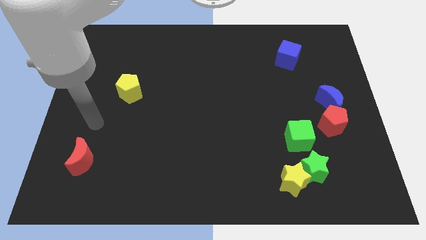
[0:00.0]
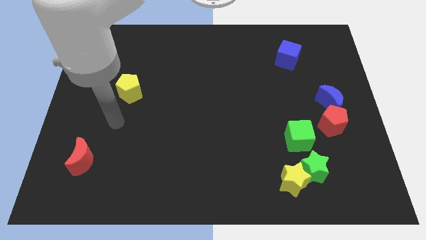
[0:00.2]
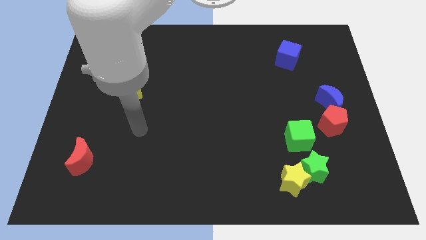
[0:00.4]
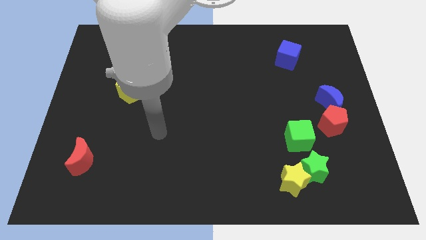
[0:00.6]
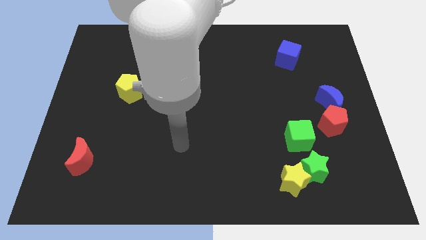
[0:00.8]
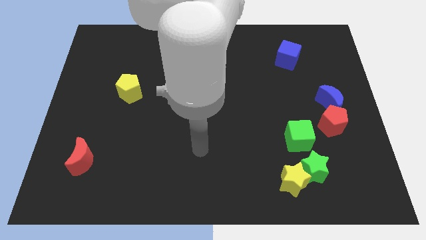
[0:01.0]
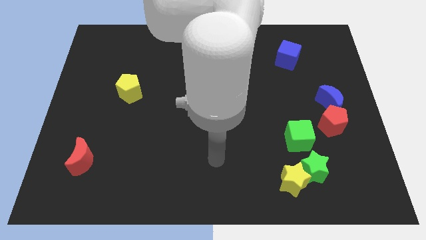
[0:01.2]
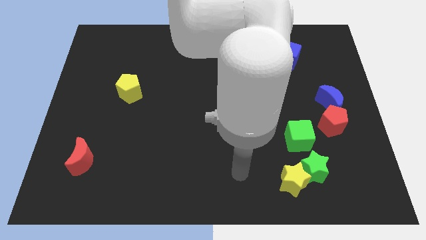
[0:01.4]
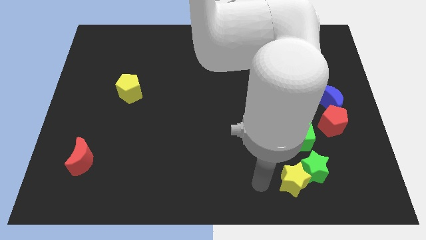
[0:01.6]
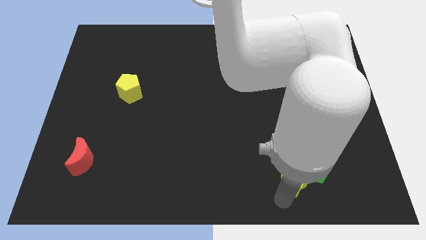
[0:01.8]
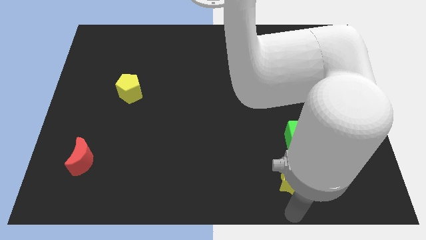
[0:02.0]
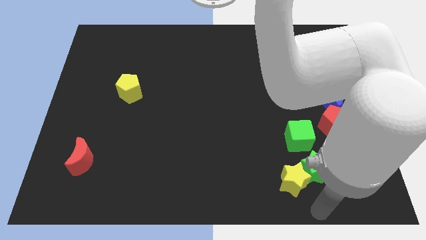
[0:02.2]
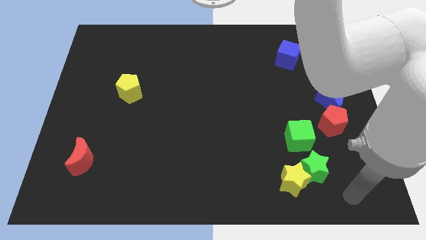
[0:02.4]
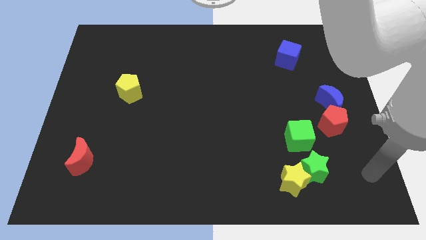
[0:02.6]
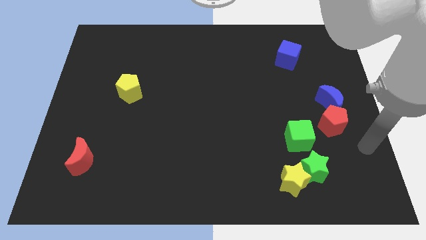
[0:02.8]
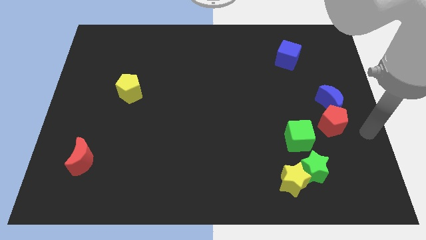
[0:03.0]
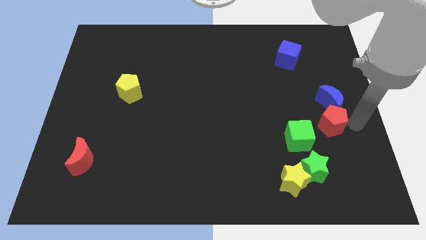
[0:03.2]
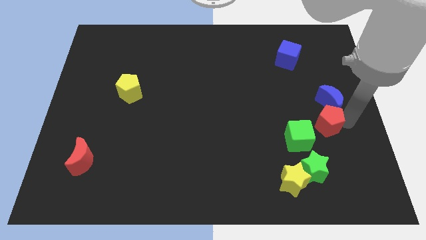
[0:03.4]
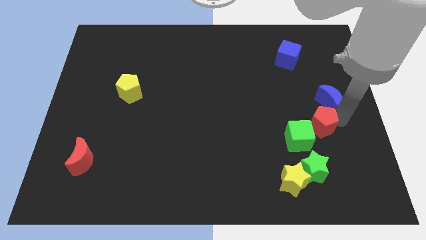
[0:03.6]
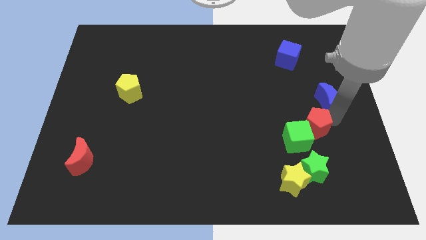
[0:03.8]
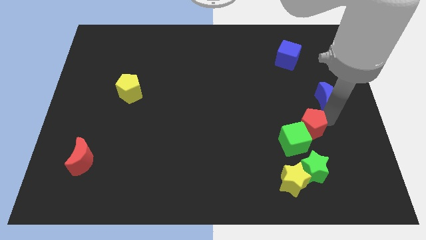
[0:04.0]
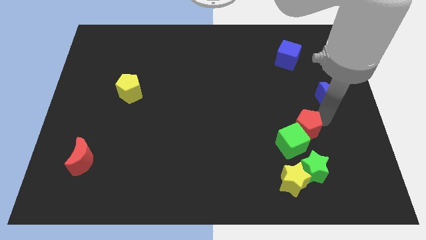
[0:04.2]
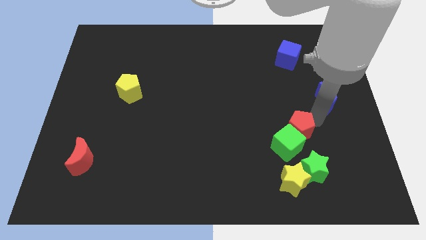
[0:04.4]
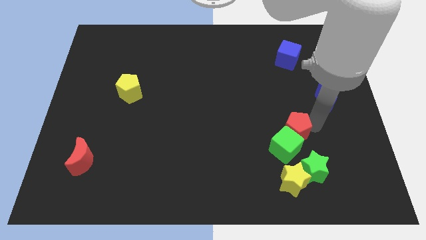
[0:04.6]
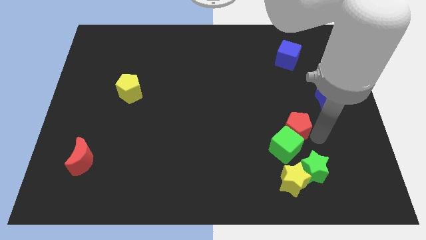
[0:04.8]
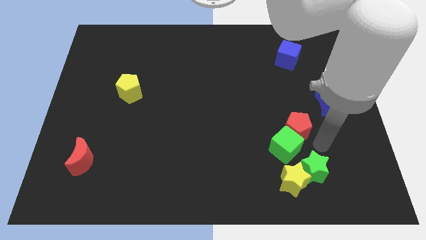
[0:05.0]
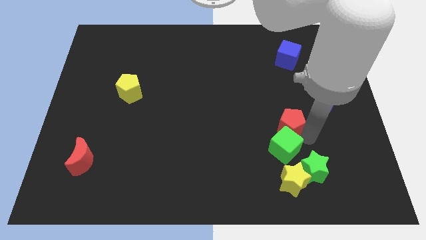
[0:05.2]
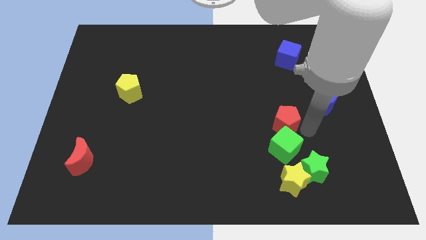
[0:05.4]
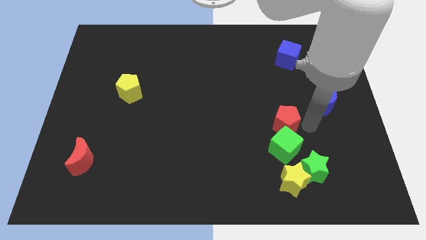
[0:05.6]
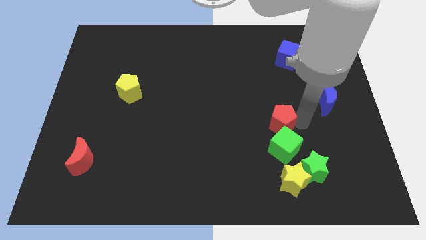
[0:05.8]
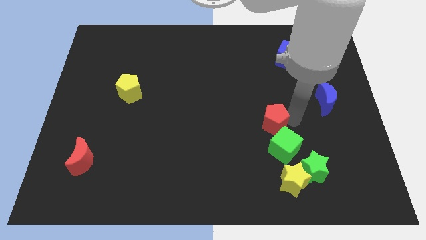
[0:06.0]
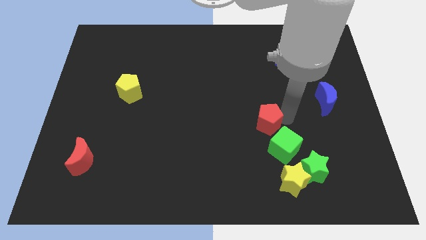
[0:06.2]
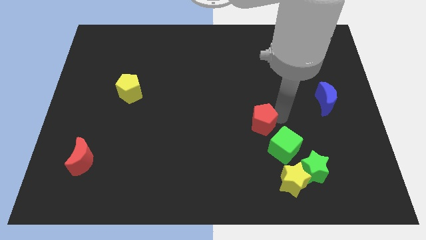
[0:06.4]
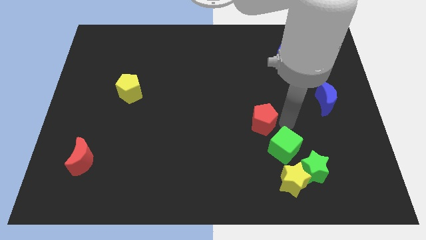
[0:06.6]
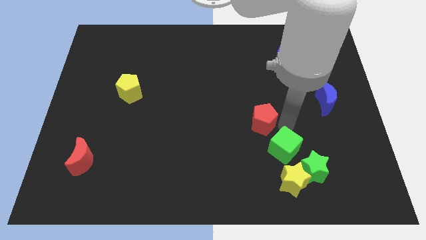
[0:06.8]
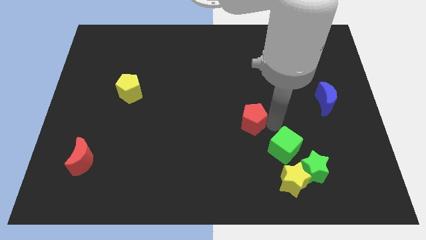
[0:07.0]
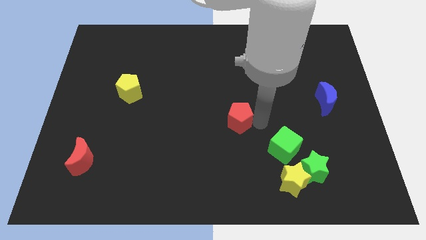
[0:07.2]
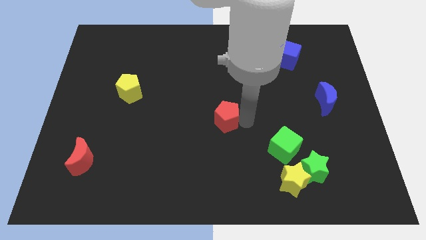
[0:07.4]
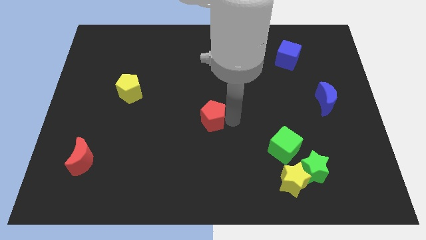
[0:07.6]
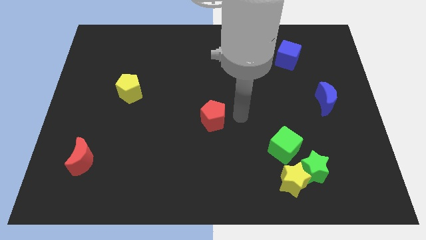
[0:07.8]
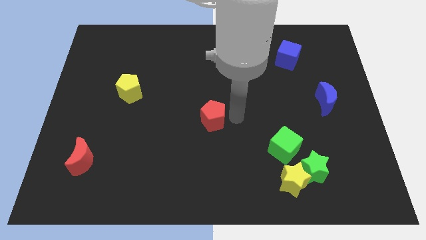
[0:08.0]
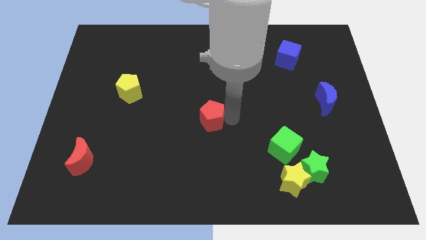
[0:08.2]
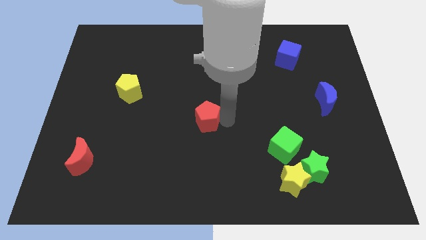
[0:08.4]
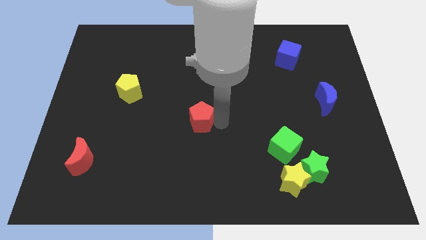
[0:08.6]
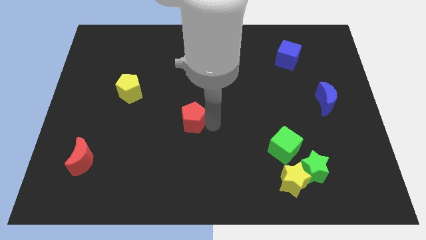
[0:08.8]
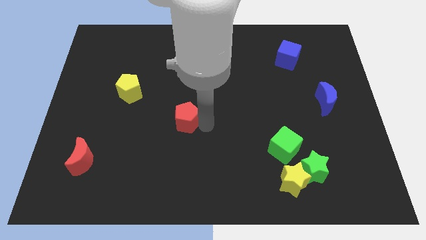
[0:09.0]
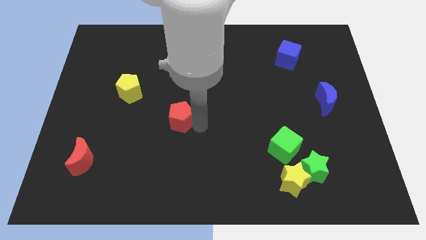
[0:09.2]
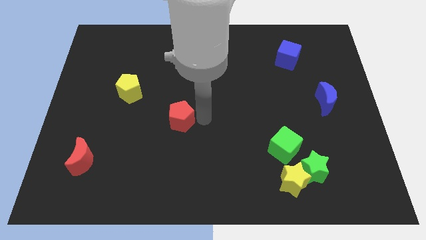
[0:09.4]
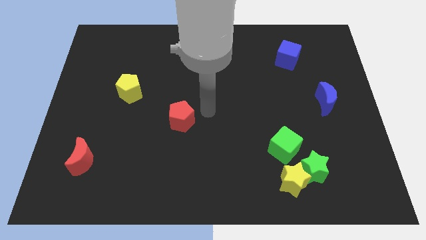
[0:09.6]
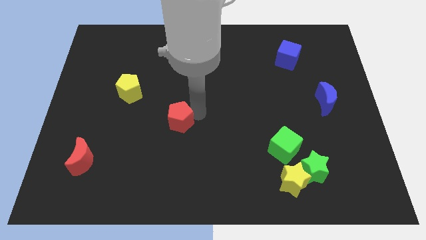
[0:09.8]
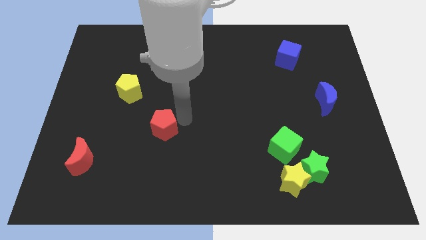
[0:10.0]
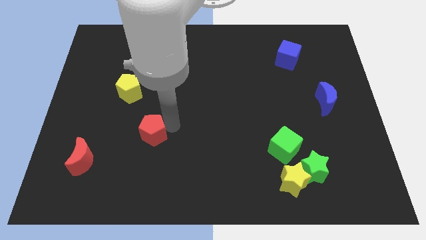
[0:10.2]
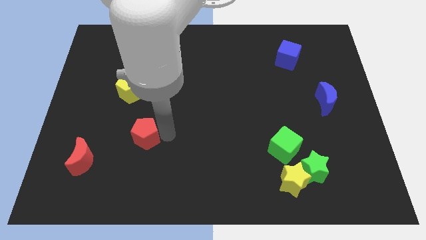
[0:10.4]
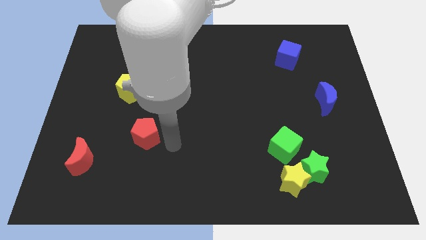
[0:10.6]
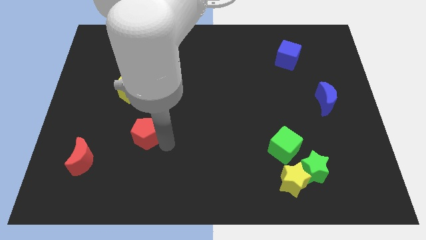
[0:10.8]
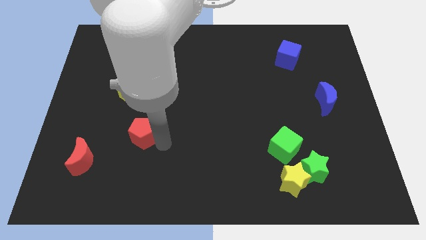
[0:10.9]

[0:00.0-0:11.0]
slide the red pentagon to the bottom side of the yellow pentagon

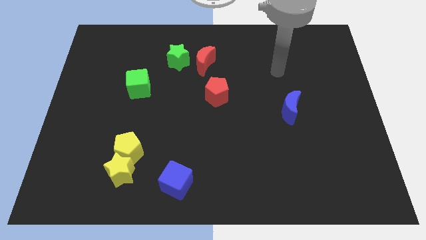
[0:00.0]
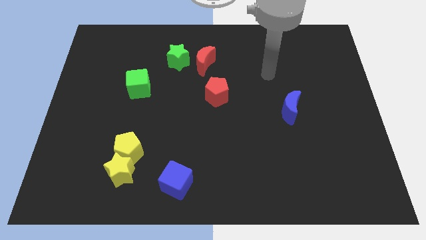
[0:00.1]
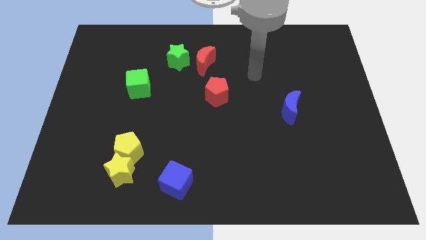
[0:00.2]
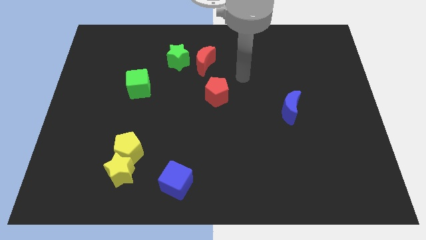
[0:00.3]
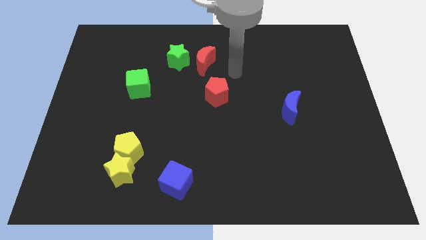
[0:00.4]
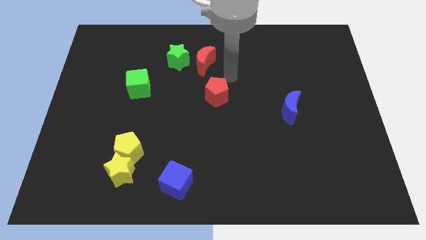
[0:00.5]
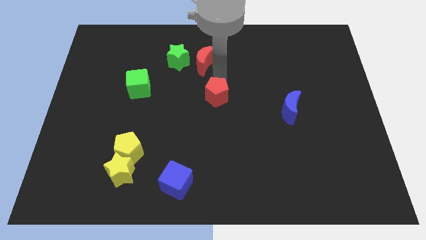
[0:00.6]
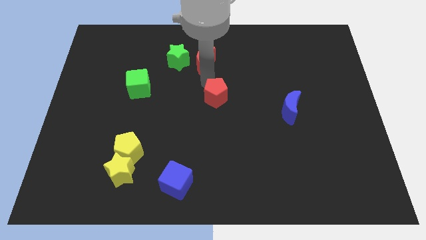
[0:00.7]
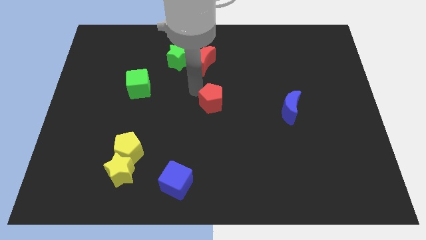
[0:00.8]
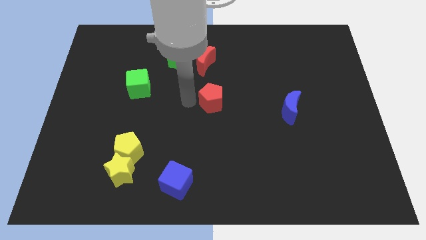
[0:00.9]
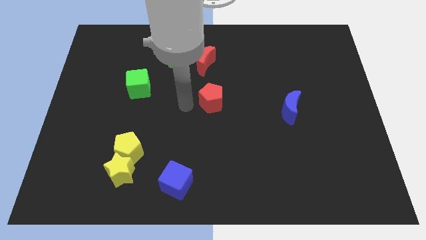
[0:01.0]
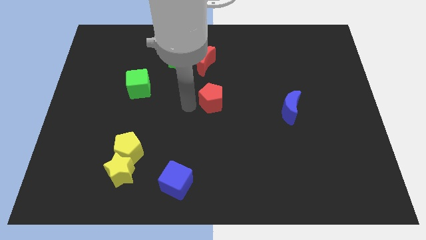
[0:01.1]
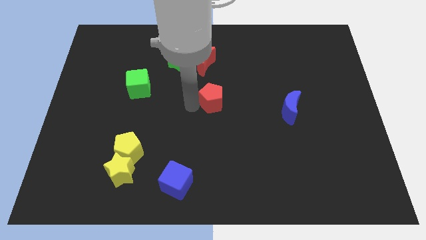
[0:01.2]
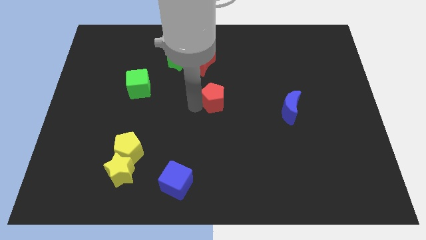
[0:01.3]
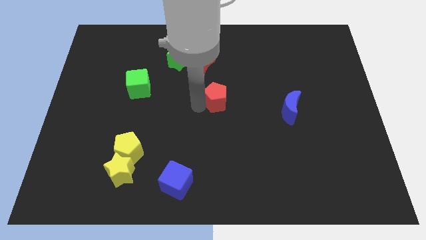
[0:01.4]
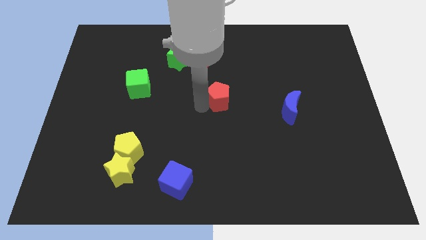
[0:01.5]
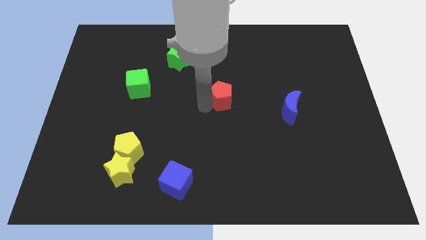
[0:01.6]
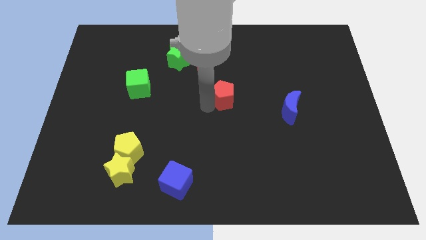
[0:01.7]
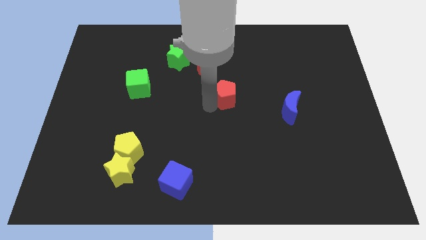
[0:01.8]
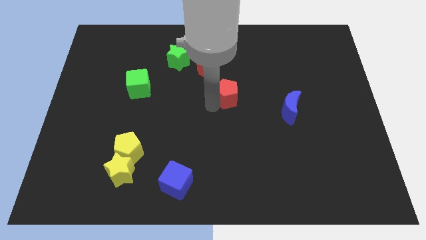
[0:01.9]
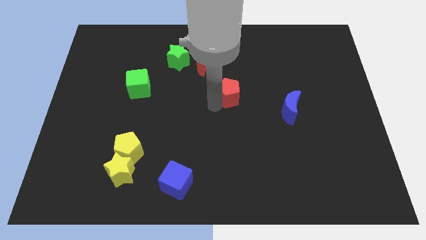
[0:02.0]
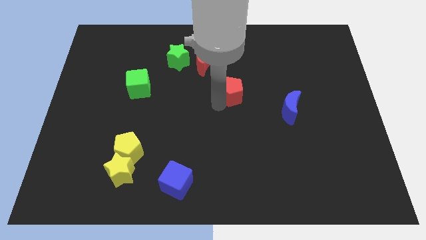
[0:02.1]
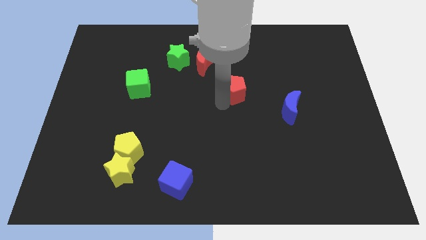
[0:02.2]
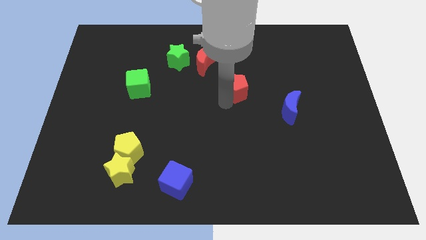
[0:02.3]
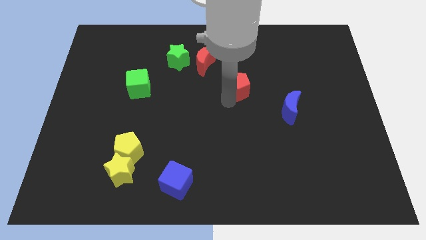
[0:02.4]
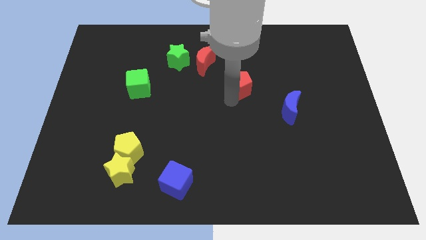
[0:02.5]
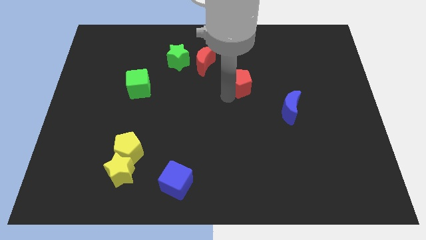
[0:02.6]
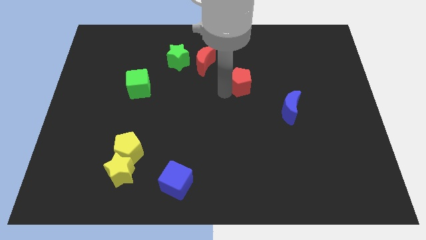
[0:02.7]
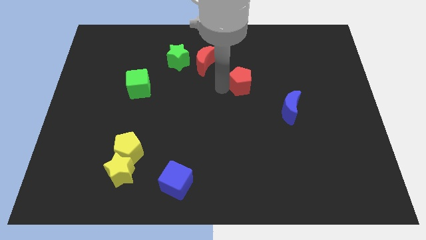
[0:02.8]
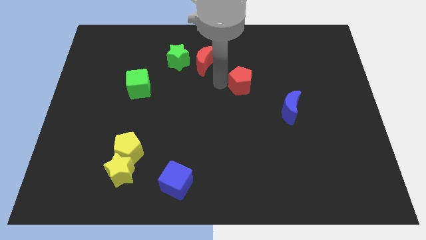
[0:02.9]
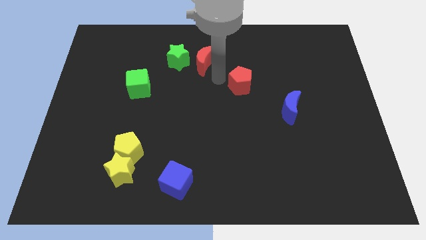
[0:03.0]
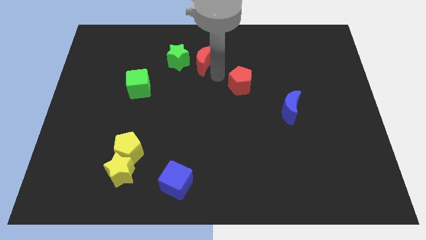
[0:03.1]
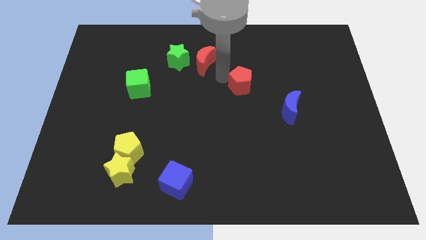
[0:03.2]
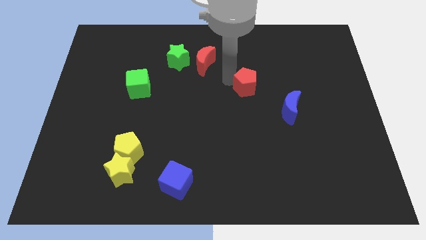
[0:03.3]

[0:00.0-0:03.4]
put the red pentagon to the top left side of the blue moon
